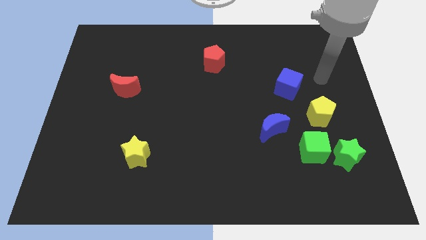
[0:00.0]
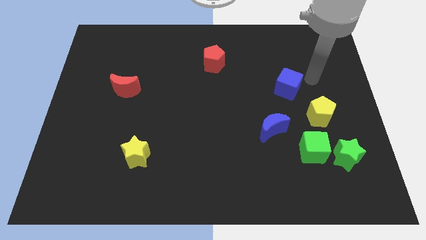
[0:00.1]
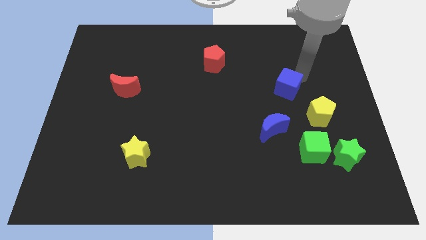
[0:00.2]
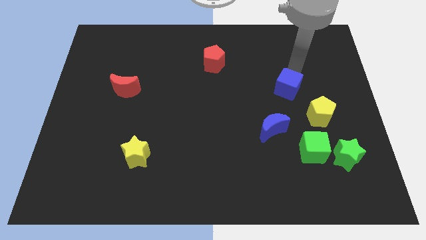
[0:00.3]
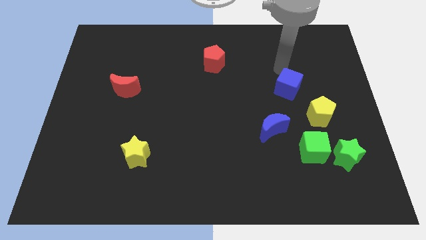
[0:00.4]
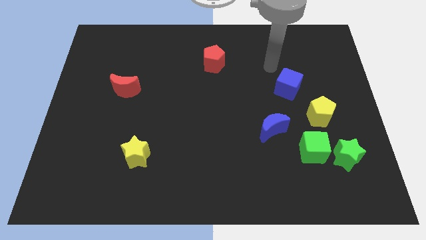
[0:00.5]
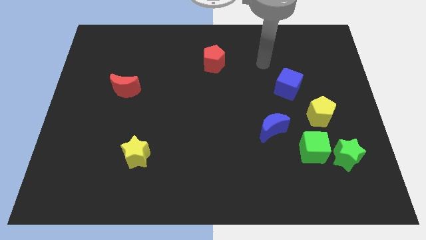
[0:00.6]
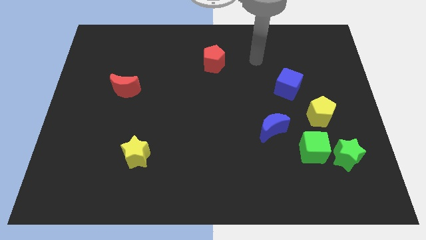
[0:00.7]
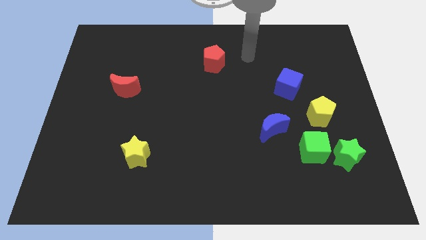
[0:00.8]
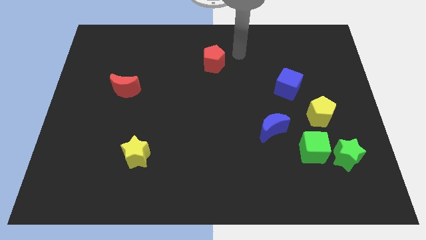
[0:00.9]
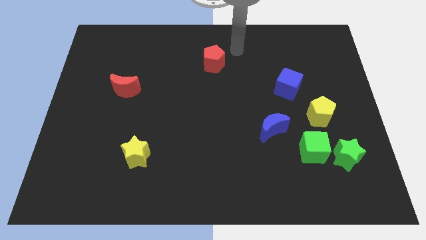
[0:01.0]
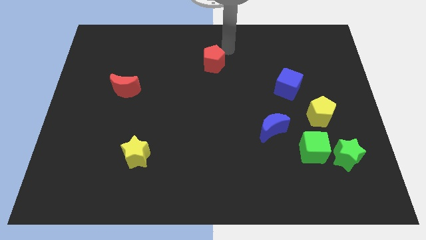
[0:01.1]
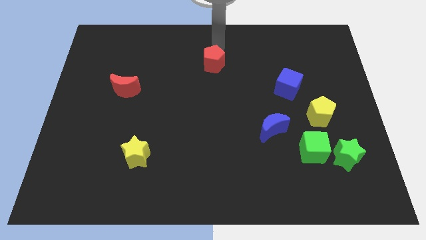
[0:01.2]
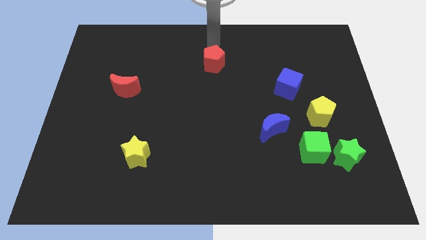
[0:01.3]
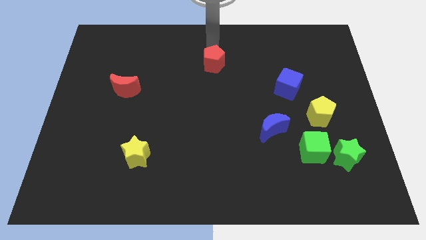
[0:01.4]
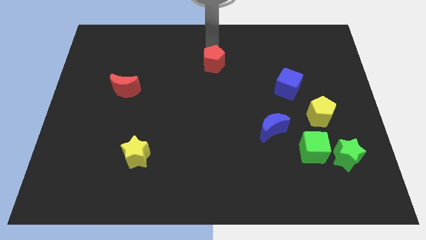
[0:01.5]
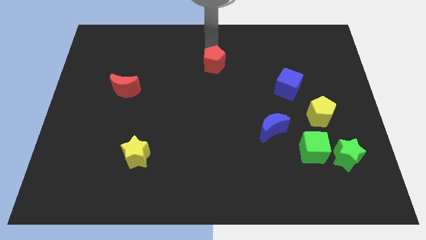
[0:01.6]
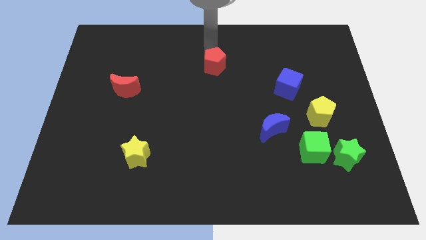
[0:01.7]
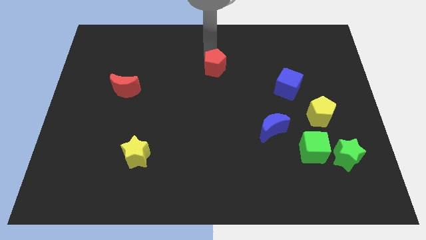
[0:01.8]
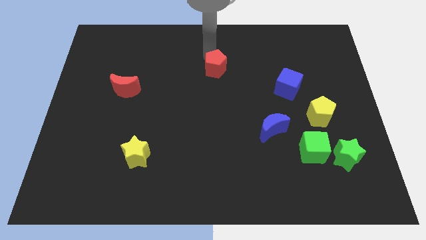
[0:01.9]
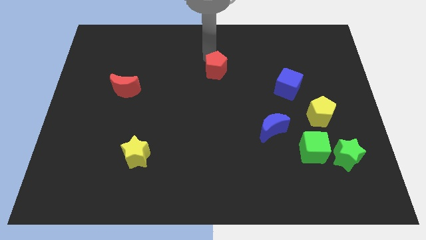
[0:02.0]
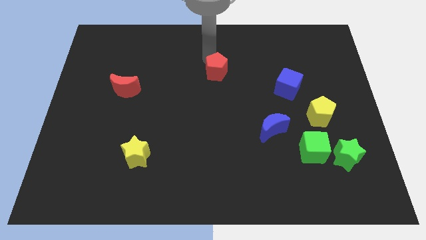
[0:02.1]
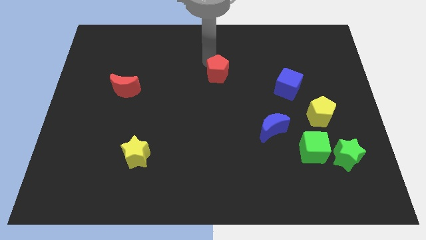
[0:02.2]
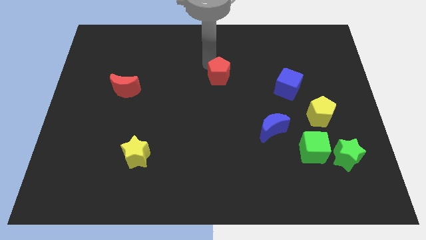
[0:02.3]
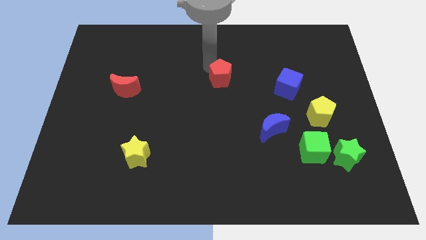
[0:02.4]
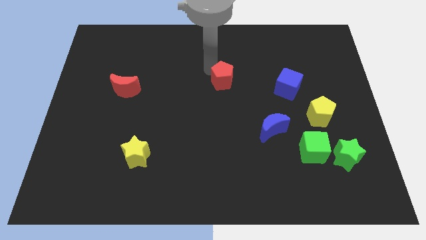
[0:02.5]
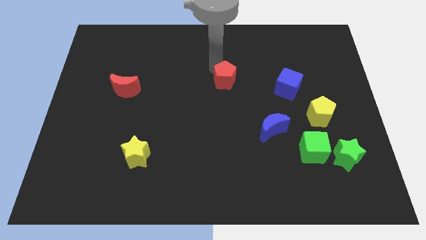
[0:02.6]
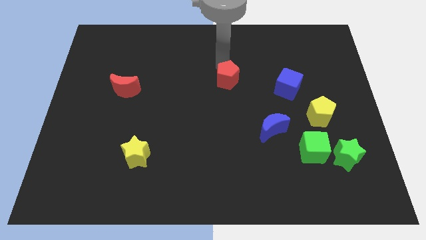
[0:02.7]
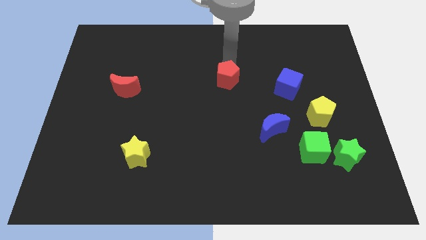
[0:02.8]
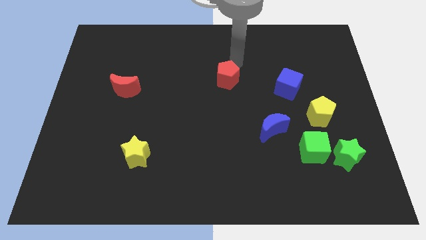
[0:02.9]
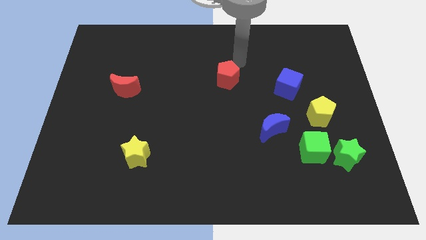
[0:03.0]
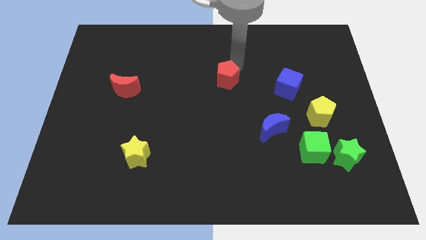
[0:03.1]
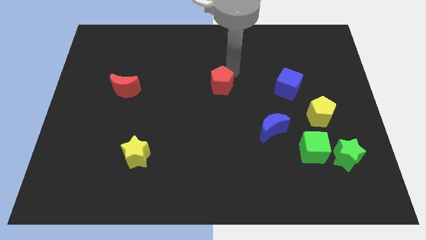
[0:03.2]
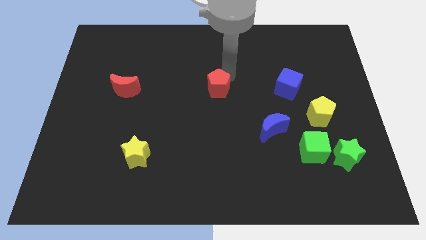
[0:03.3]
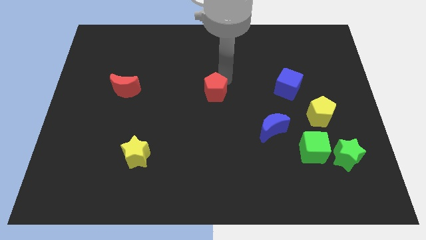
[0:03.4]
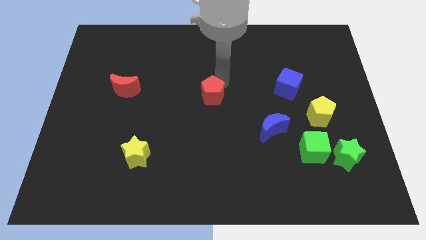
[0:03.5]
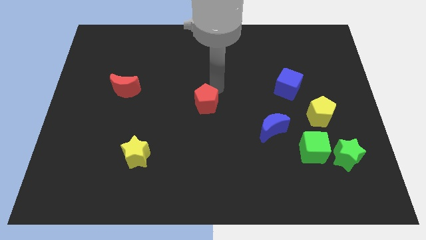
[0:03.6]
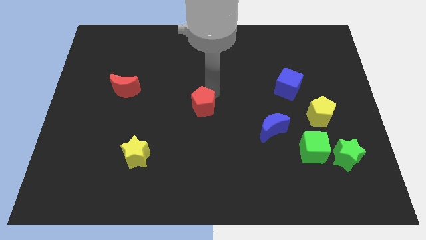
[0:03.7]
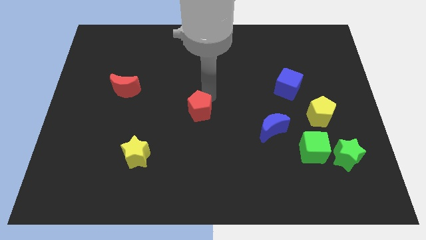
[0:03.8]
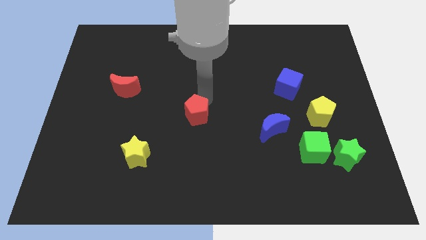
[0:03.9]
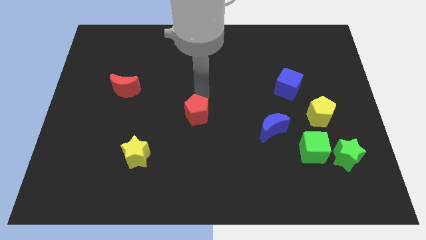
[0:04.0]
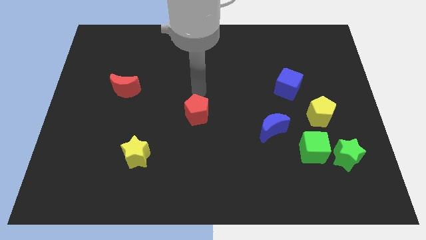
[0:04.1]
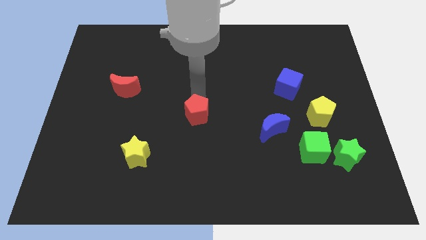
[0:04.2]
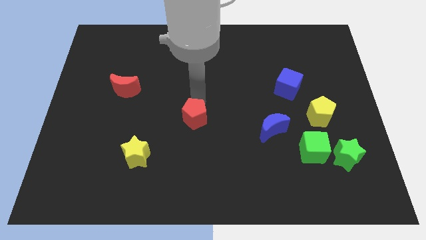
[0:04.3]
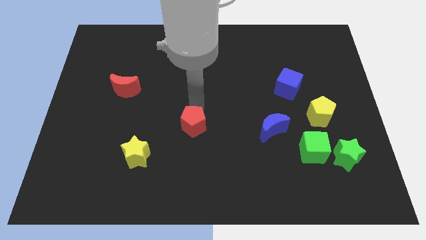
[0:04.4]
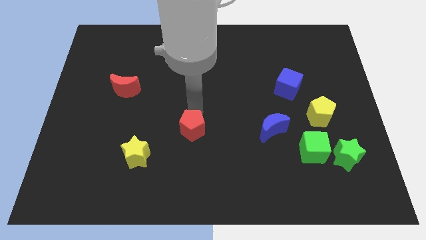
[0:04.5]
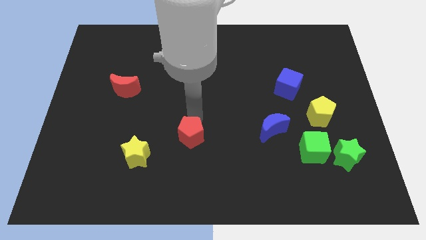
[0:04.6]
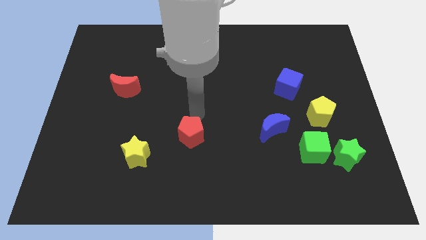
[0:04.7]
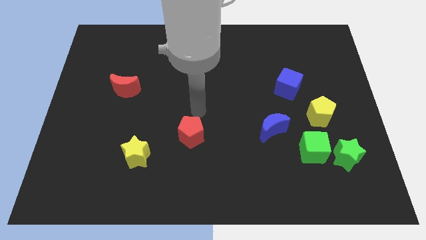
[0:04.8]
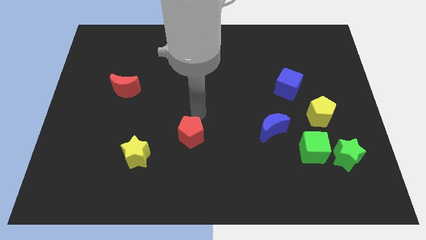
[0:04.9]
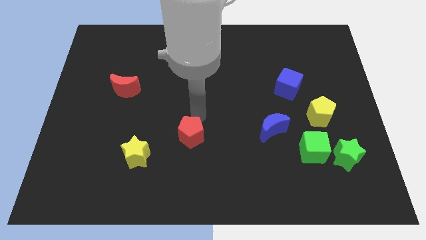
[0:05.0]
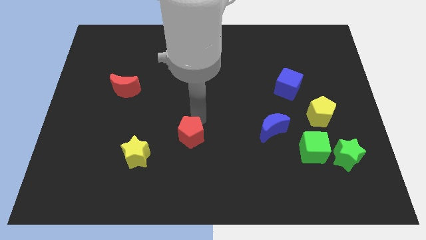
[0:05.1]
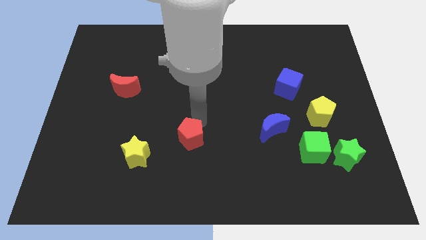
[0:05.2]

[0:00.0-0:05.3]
move the red pentagon just right of the yellow star

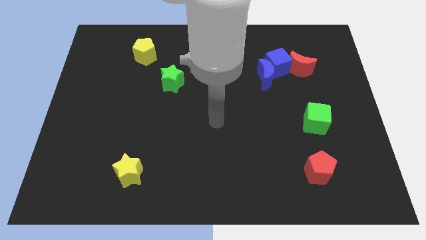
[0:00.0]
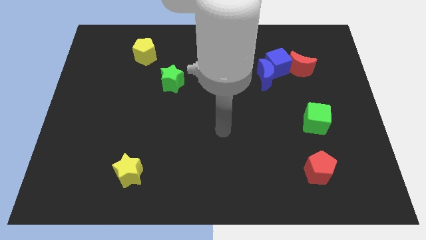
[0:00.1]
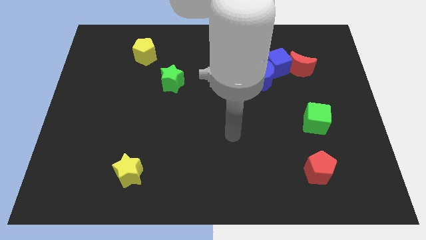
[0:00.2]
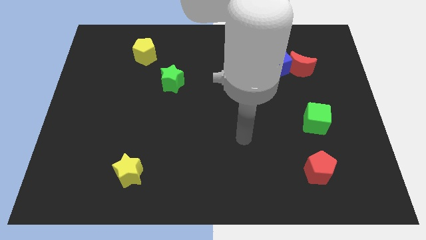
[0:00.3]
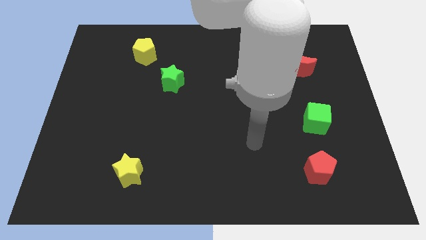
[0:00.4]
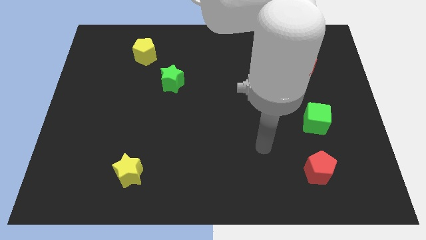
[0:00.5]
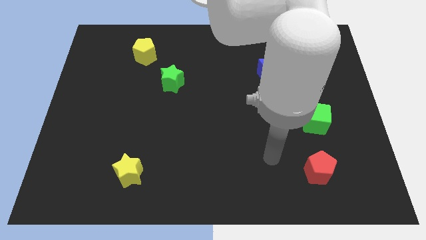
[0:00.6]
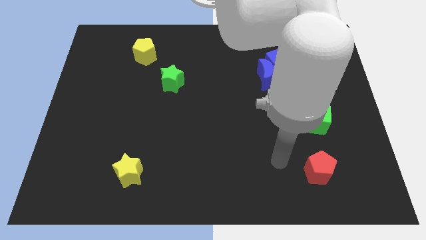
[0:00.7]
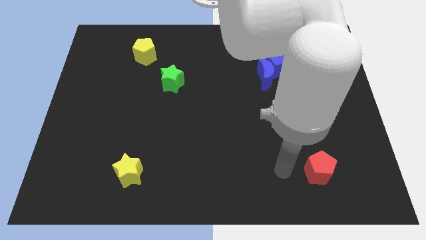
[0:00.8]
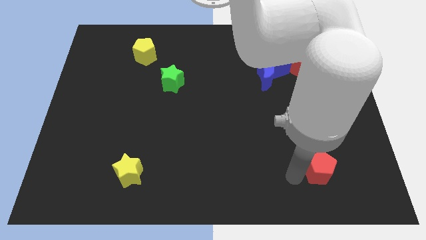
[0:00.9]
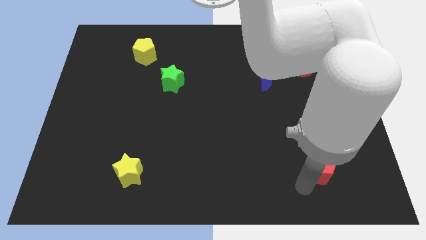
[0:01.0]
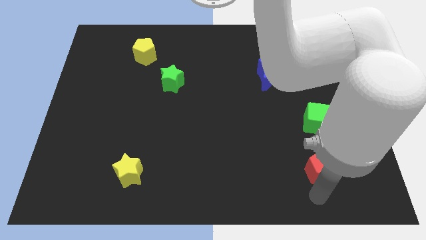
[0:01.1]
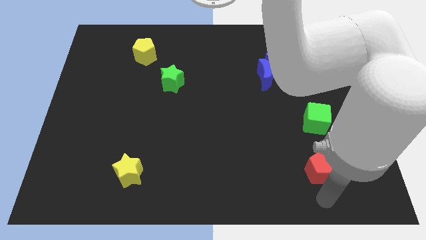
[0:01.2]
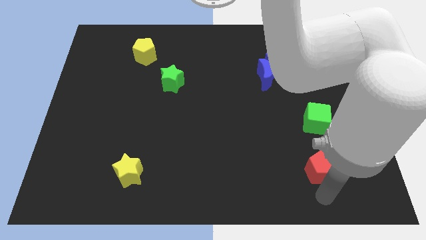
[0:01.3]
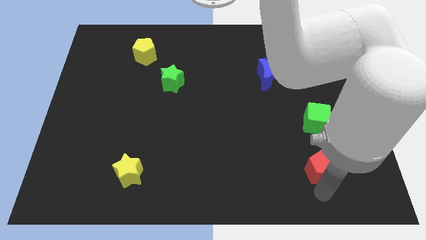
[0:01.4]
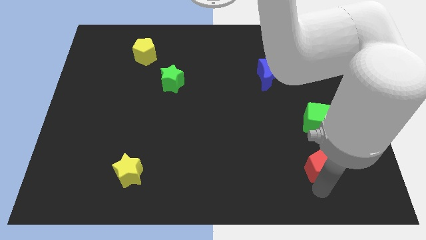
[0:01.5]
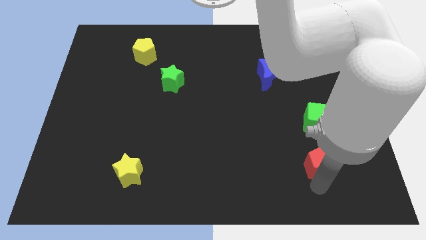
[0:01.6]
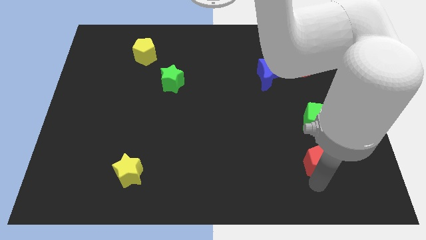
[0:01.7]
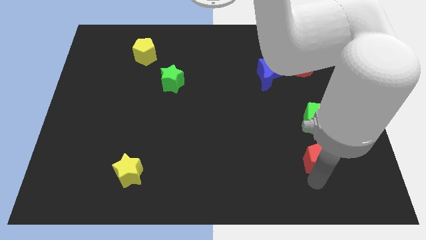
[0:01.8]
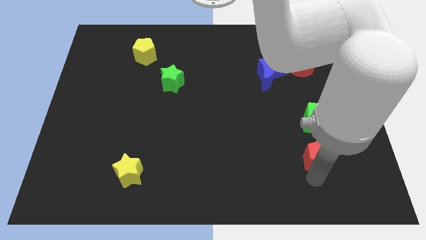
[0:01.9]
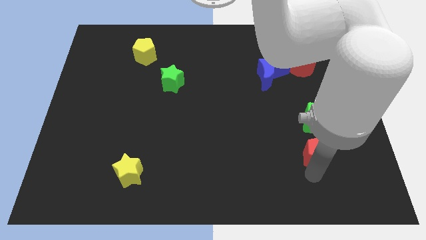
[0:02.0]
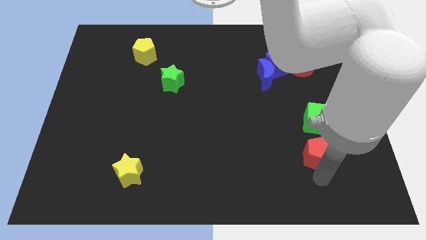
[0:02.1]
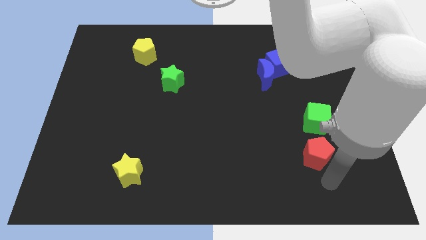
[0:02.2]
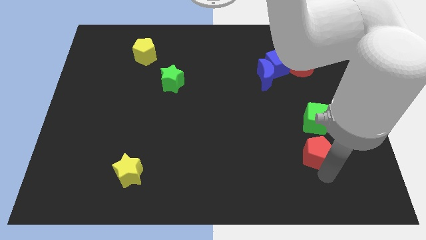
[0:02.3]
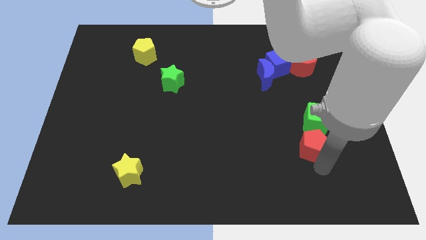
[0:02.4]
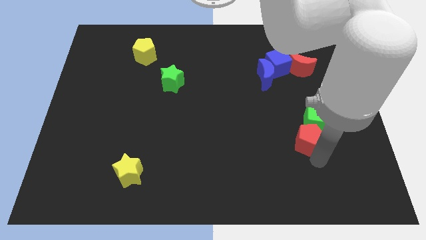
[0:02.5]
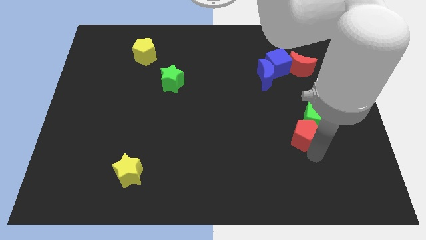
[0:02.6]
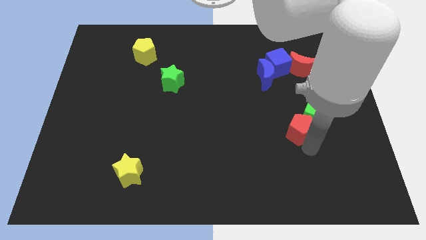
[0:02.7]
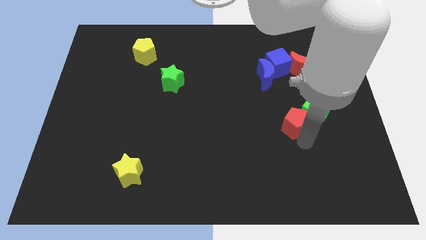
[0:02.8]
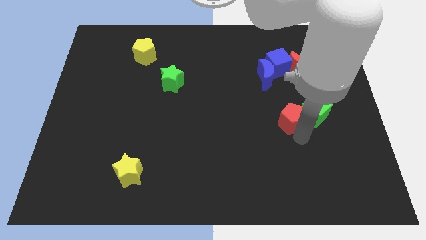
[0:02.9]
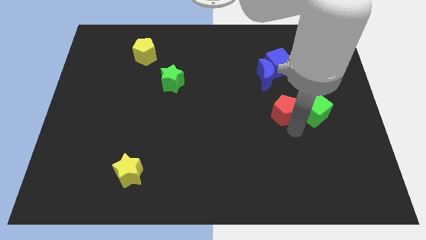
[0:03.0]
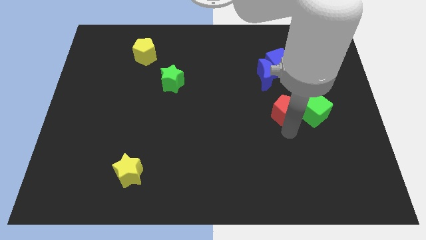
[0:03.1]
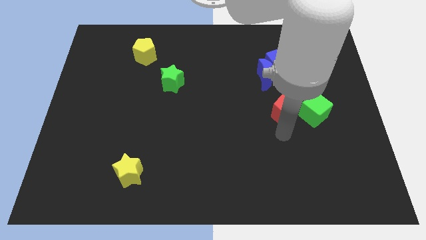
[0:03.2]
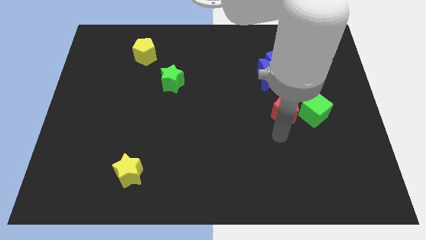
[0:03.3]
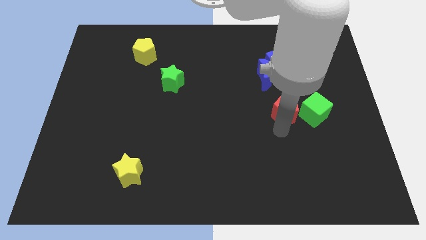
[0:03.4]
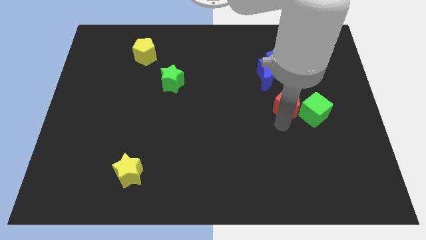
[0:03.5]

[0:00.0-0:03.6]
push the red pentagon diagonally down and to the right of the blue moon
